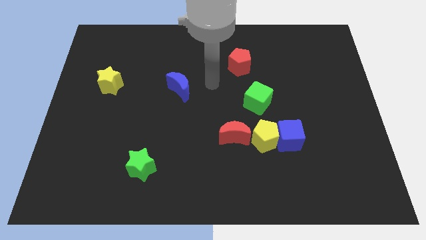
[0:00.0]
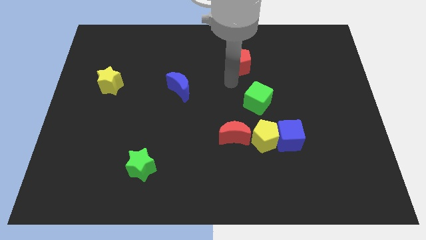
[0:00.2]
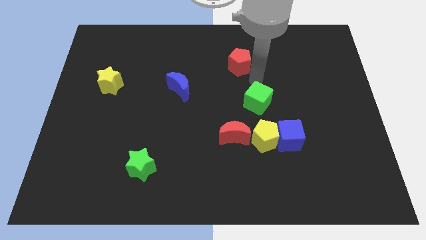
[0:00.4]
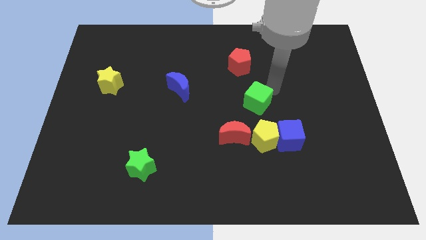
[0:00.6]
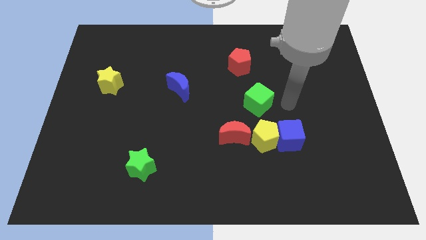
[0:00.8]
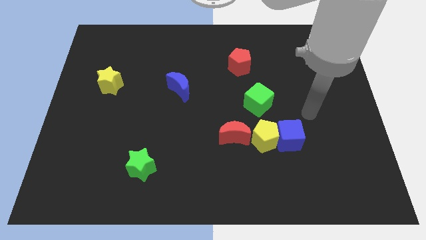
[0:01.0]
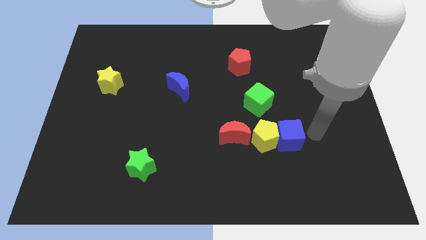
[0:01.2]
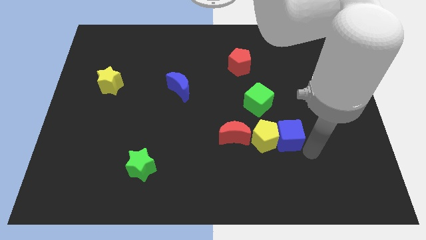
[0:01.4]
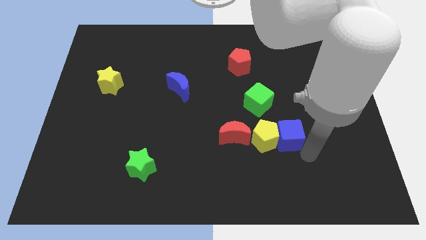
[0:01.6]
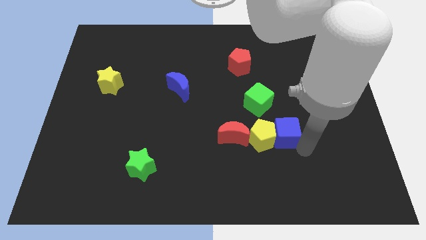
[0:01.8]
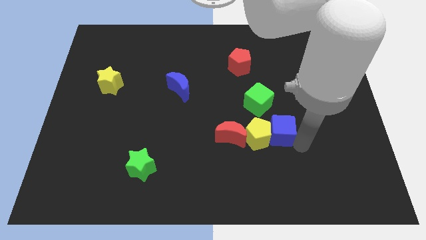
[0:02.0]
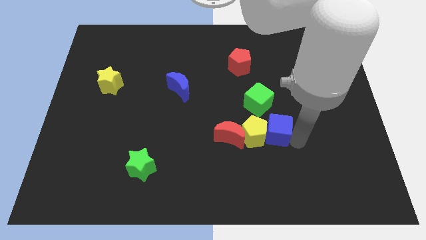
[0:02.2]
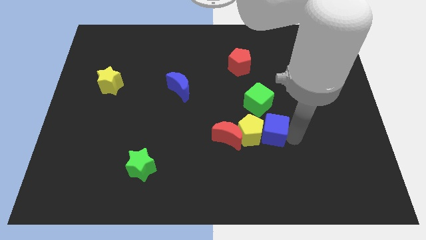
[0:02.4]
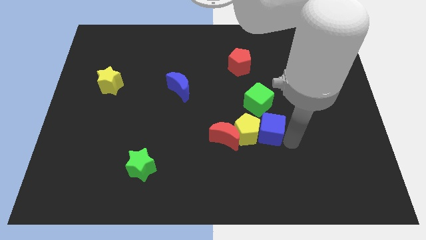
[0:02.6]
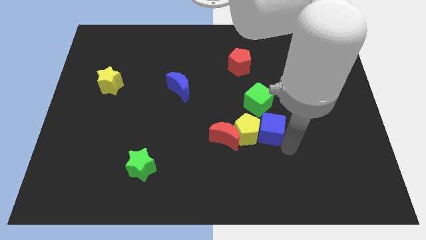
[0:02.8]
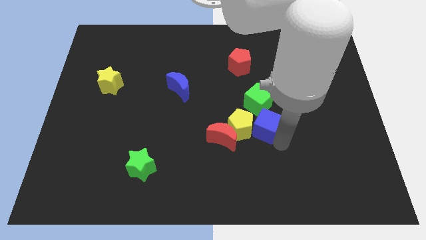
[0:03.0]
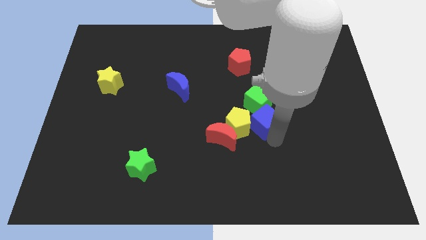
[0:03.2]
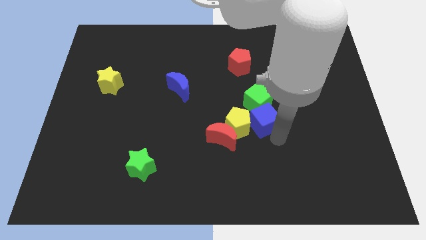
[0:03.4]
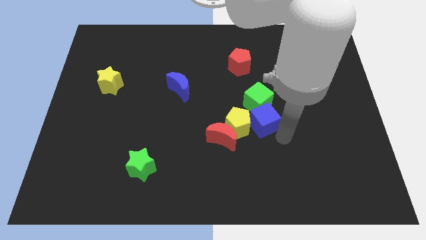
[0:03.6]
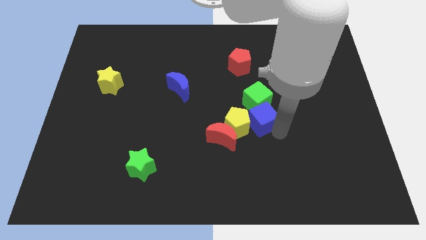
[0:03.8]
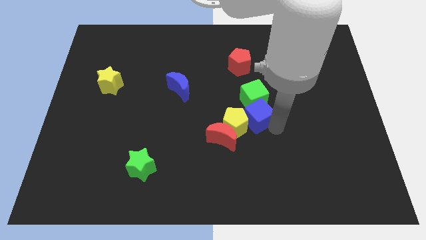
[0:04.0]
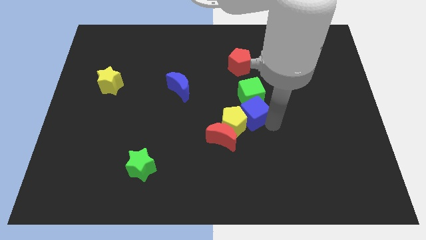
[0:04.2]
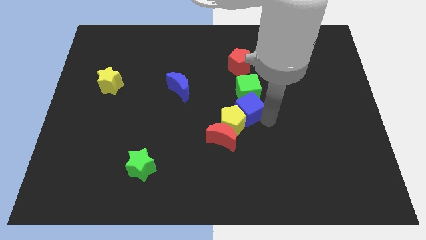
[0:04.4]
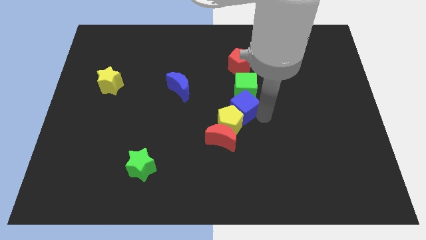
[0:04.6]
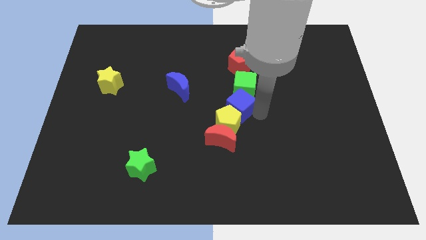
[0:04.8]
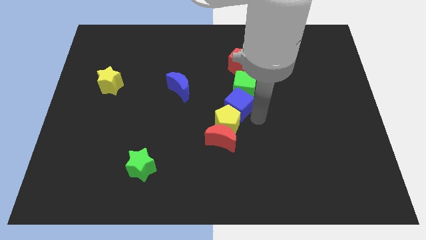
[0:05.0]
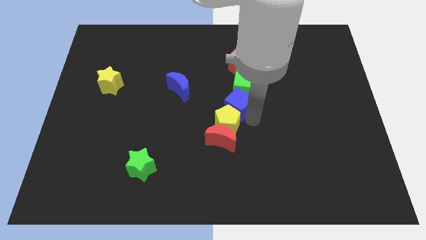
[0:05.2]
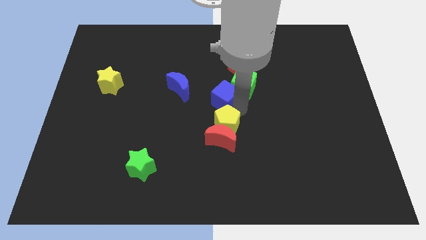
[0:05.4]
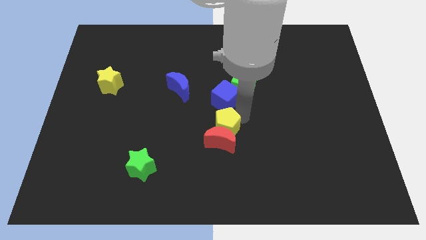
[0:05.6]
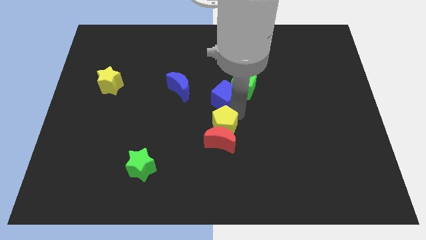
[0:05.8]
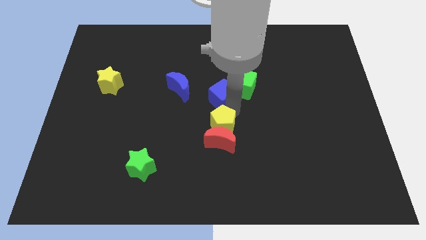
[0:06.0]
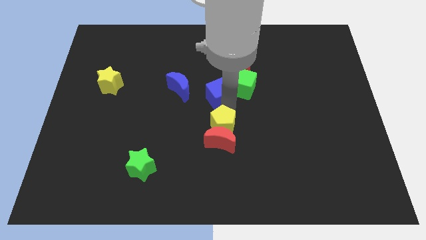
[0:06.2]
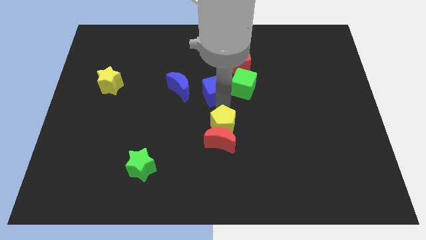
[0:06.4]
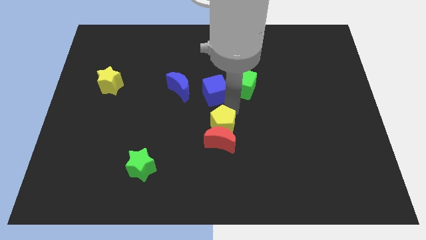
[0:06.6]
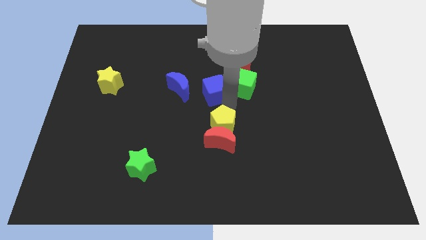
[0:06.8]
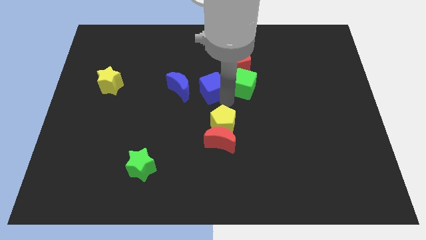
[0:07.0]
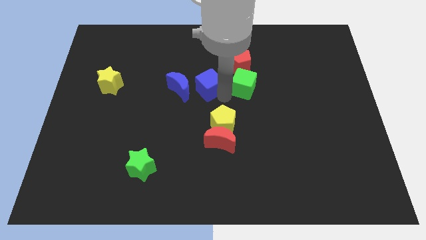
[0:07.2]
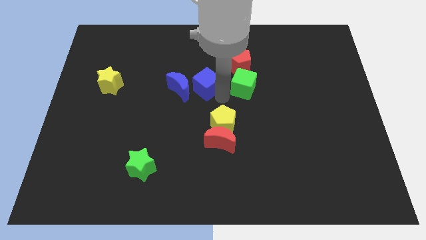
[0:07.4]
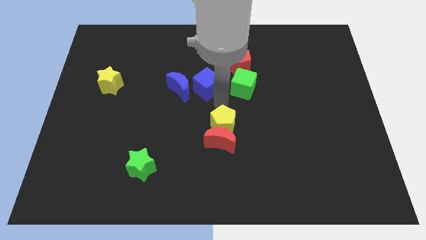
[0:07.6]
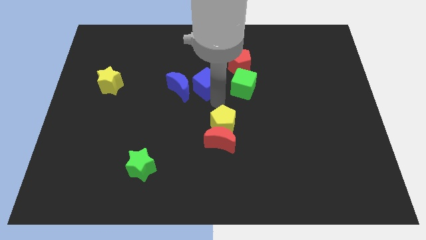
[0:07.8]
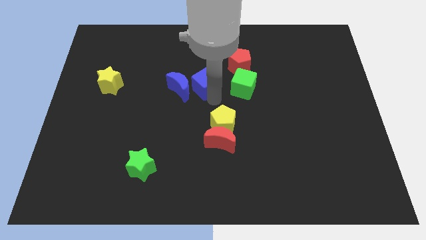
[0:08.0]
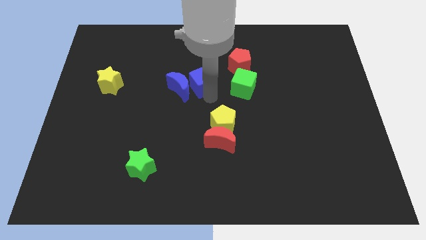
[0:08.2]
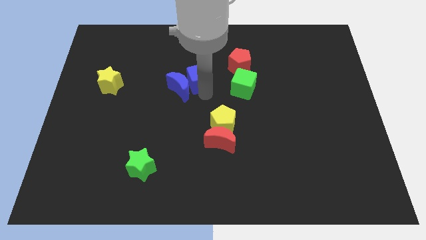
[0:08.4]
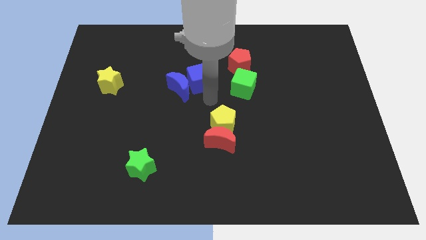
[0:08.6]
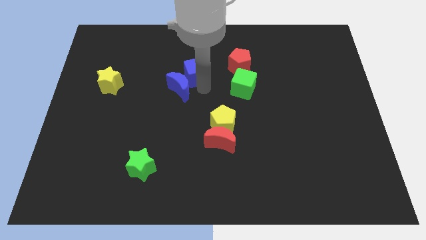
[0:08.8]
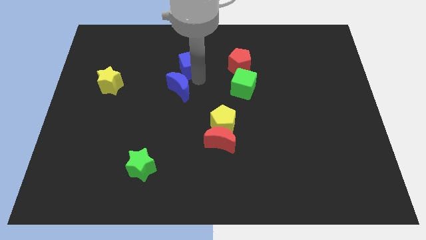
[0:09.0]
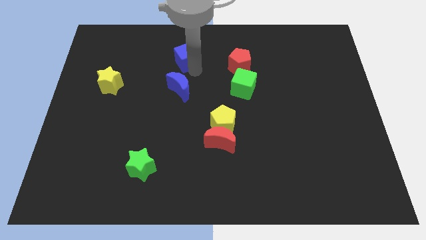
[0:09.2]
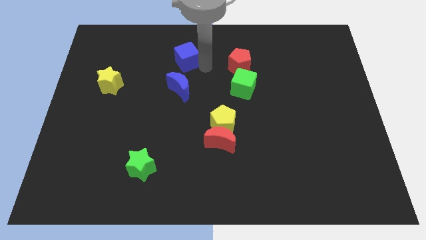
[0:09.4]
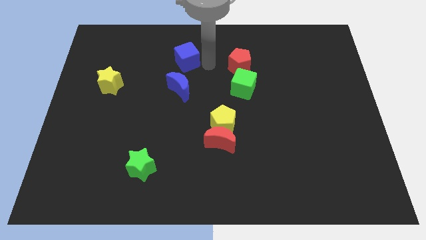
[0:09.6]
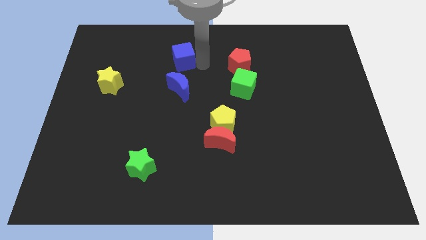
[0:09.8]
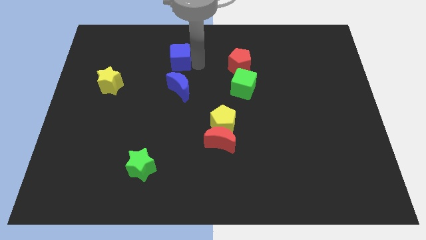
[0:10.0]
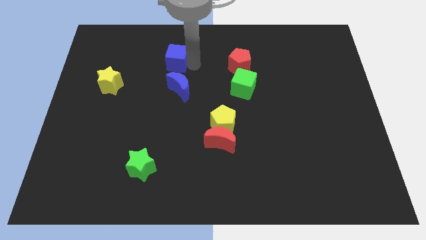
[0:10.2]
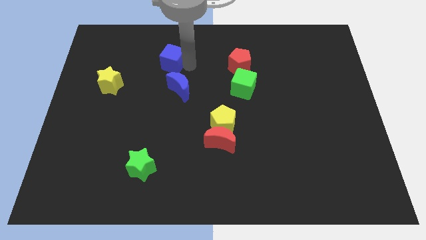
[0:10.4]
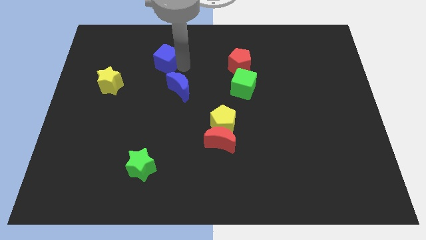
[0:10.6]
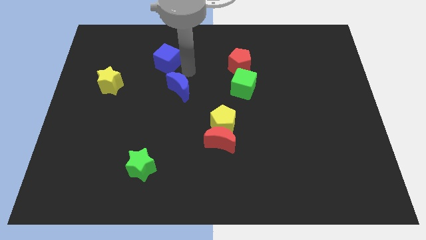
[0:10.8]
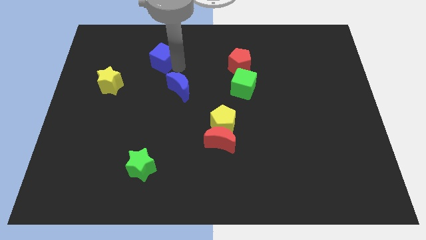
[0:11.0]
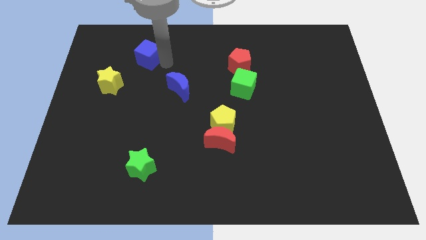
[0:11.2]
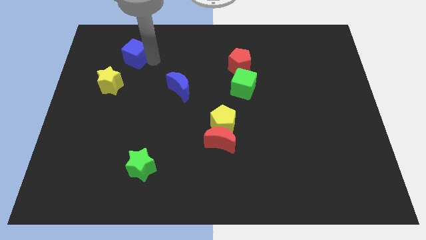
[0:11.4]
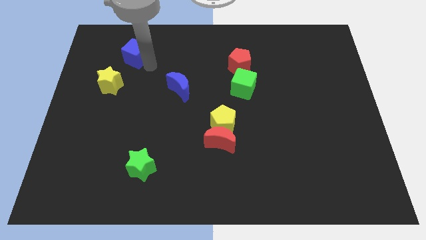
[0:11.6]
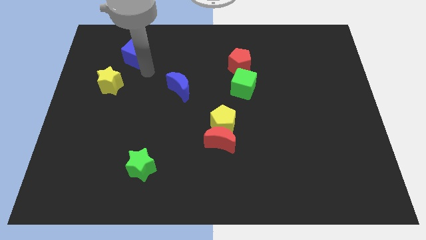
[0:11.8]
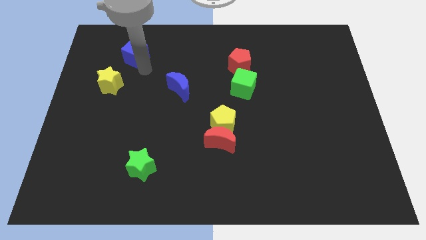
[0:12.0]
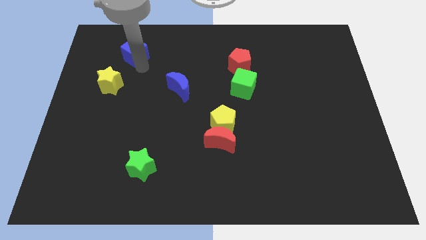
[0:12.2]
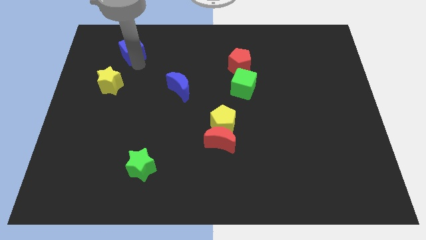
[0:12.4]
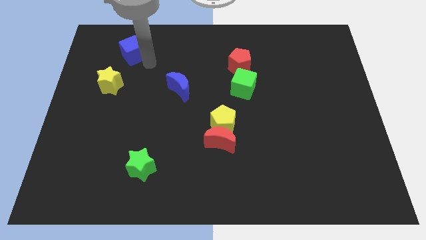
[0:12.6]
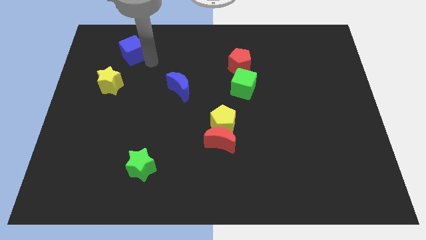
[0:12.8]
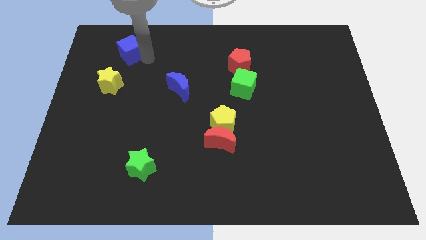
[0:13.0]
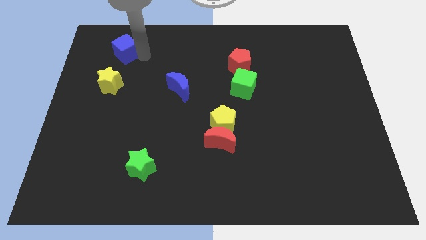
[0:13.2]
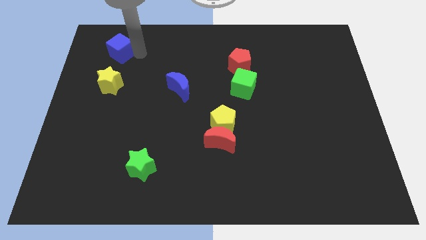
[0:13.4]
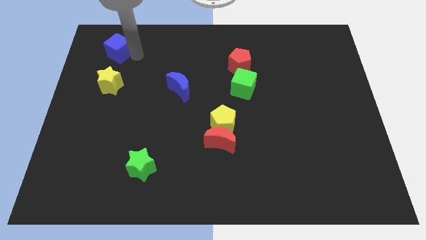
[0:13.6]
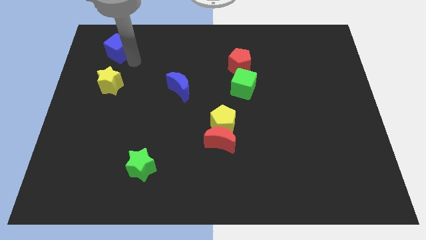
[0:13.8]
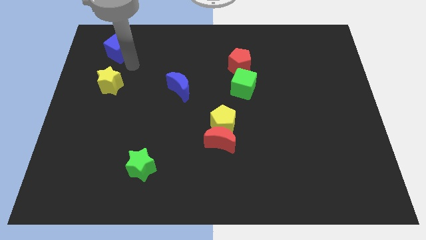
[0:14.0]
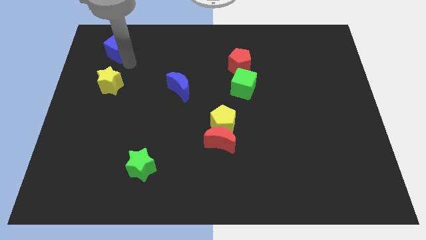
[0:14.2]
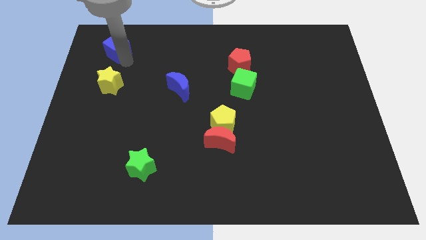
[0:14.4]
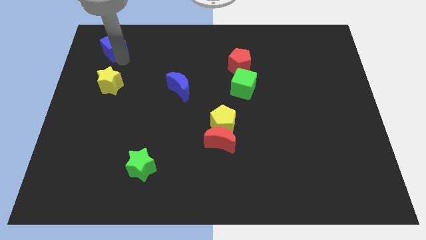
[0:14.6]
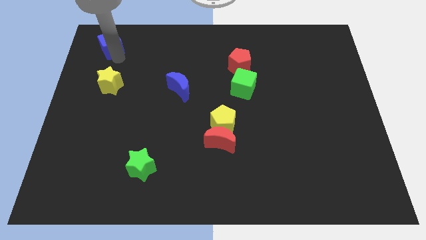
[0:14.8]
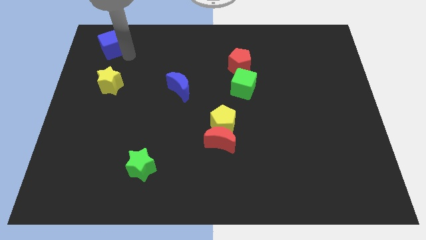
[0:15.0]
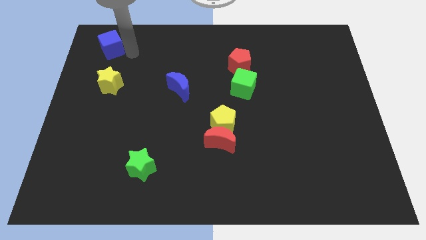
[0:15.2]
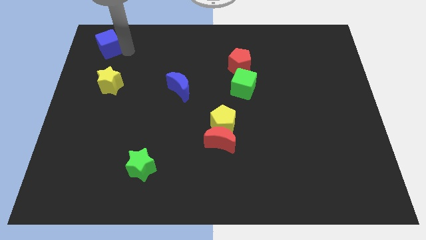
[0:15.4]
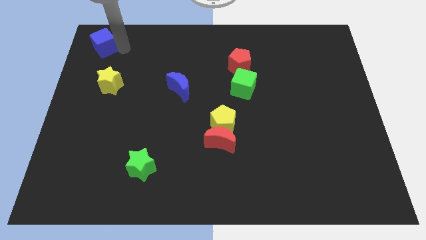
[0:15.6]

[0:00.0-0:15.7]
push the blue cube to the top left of the board
